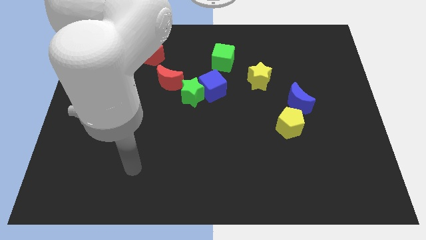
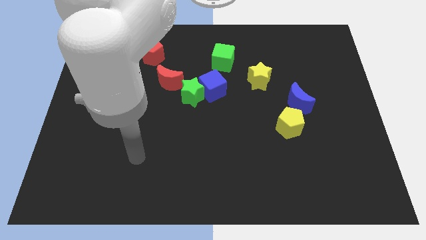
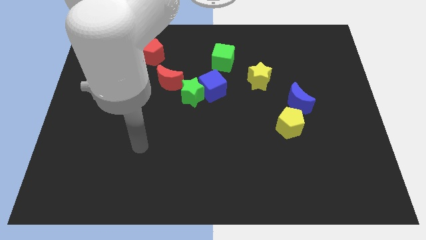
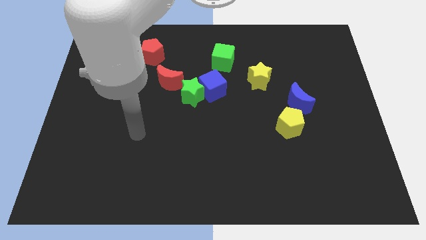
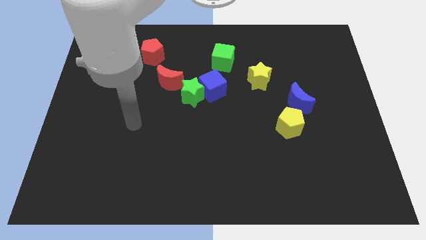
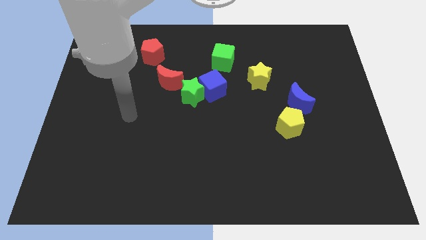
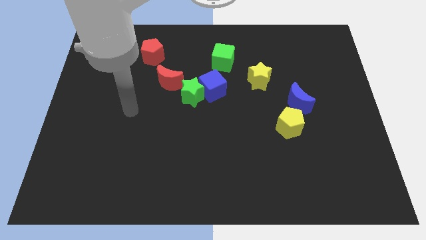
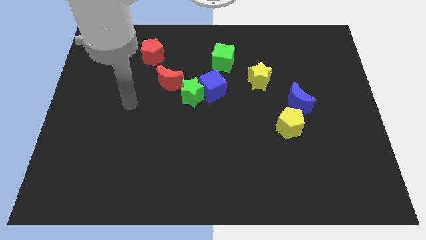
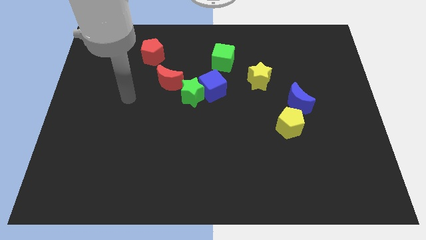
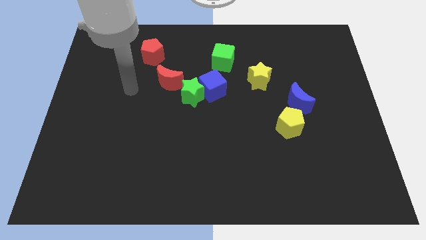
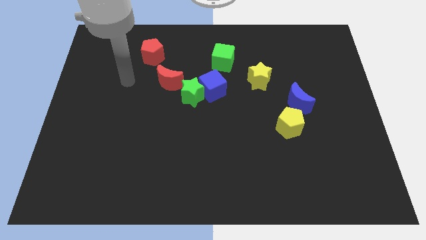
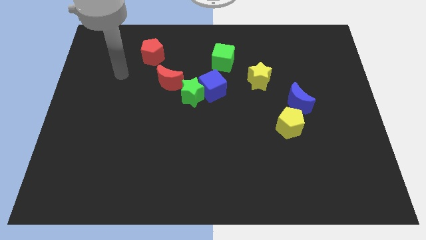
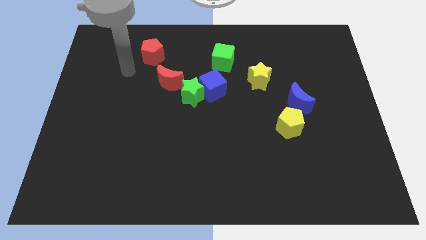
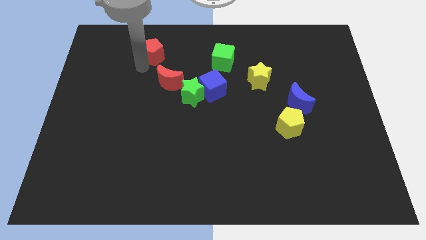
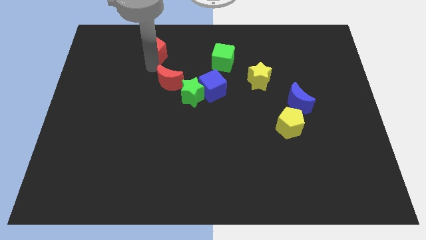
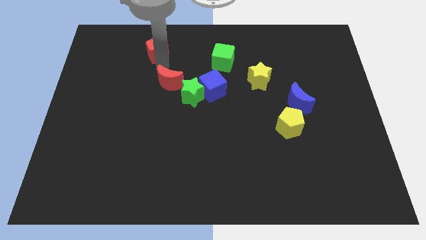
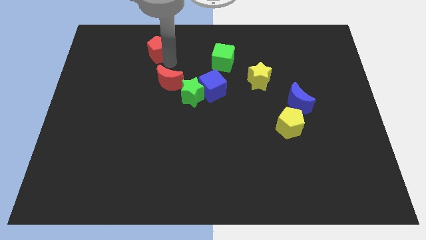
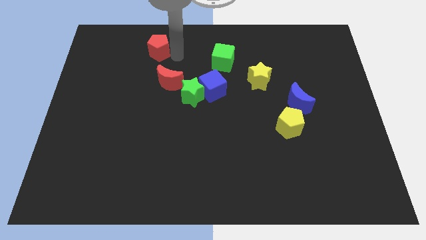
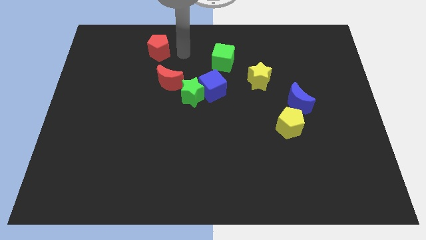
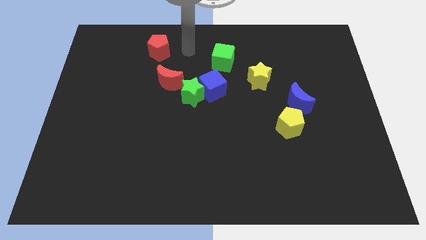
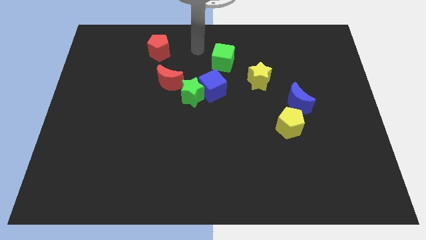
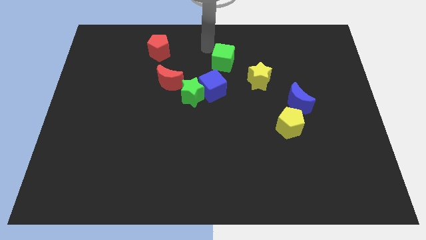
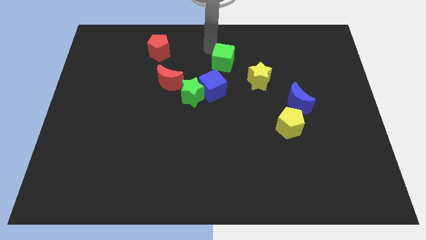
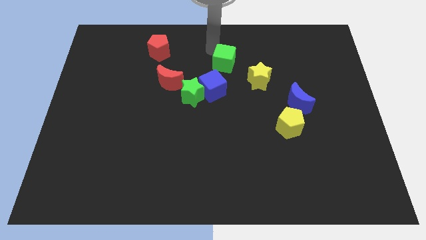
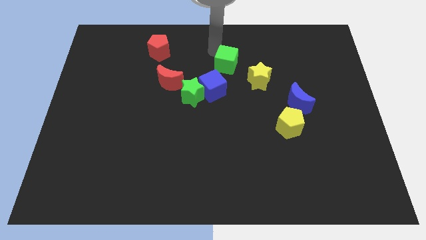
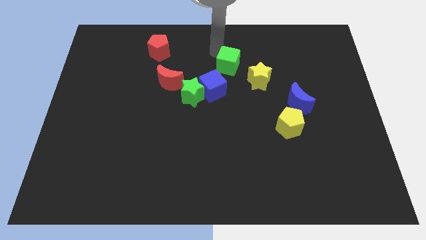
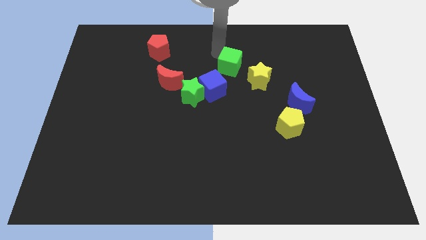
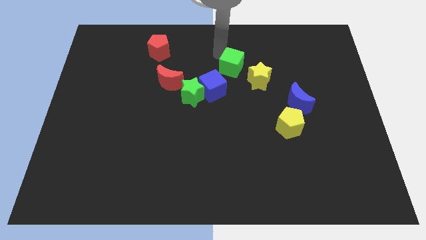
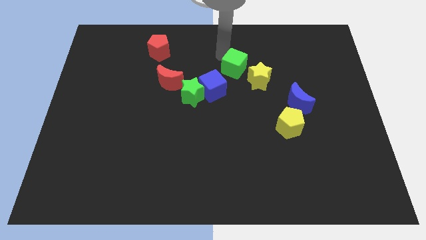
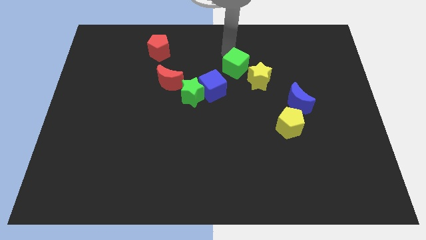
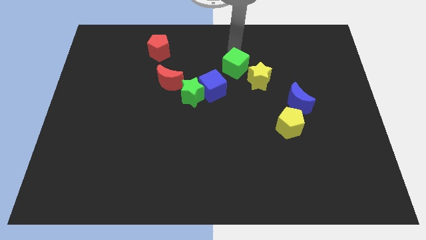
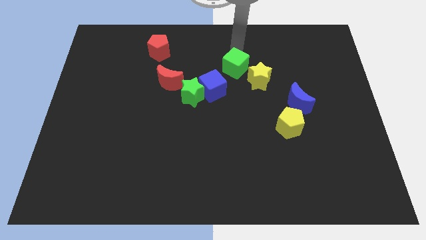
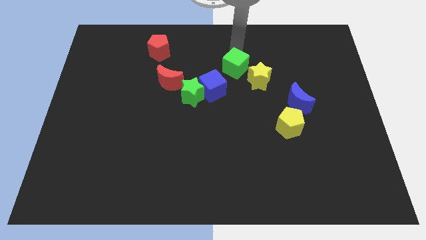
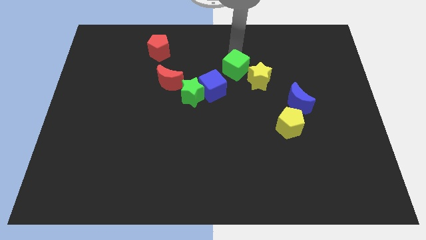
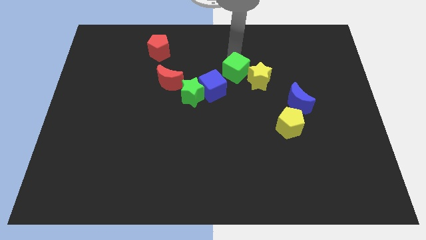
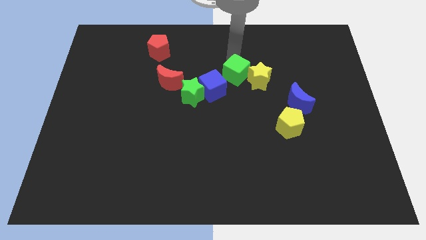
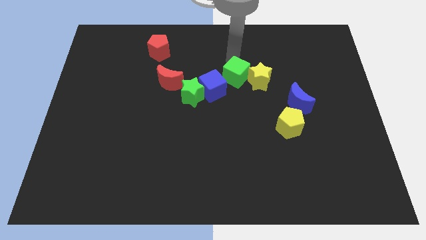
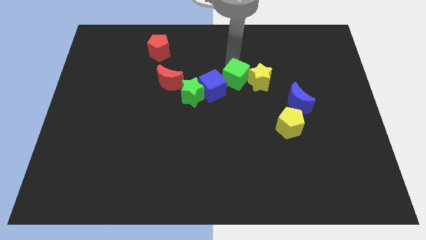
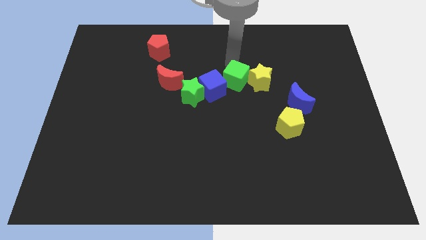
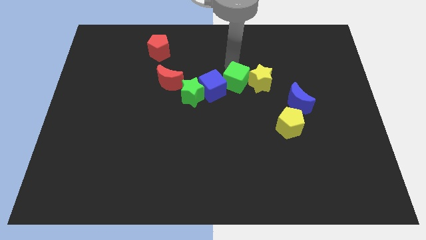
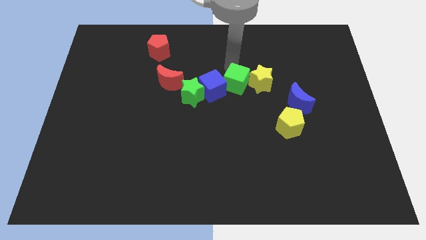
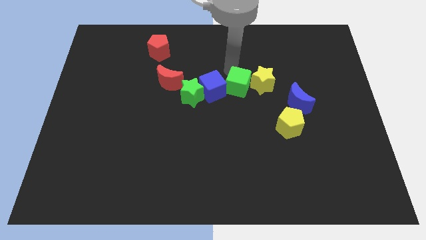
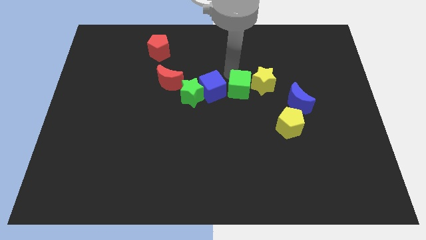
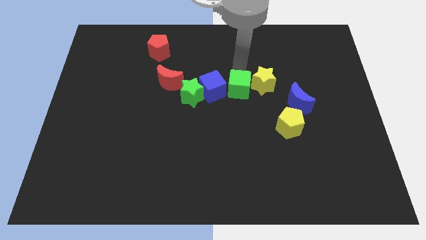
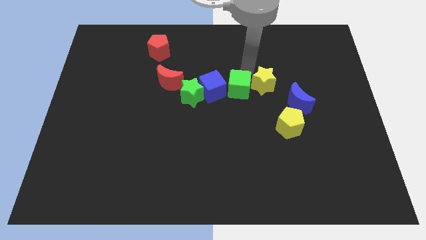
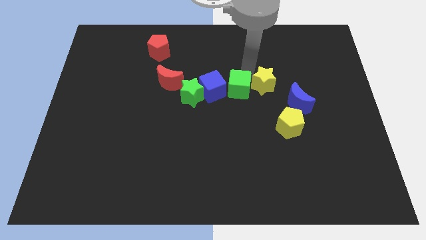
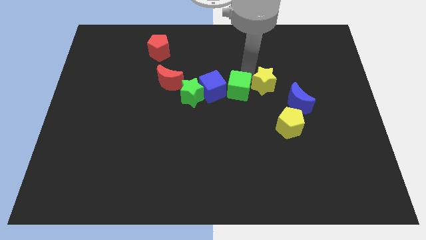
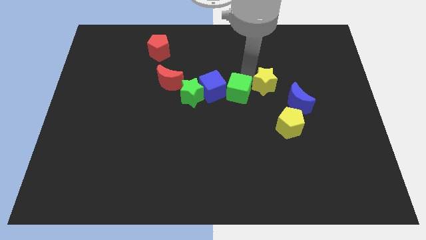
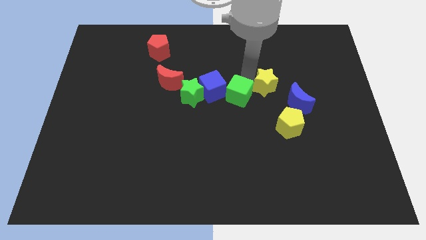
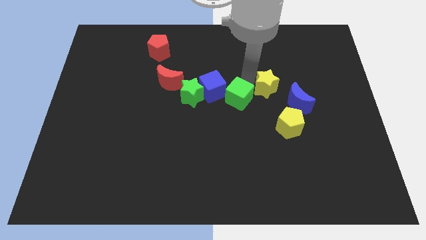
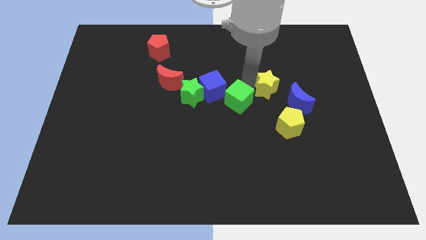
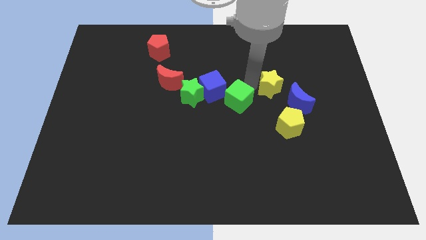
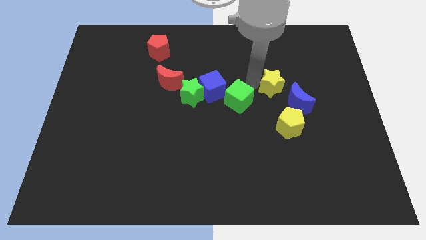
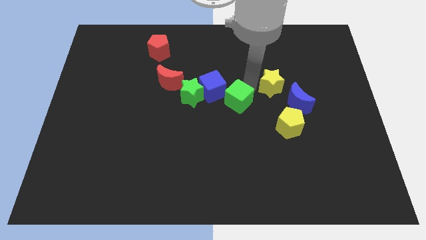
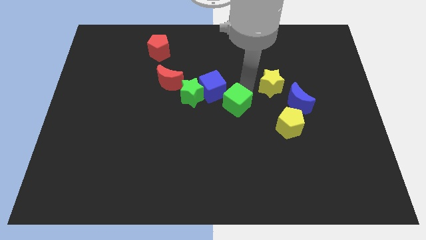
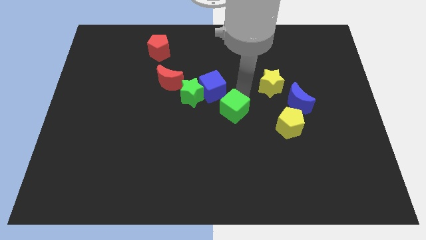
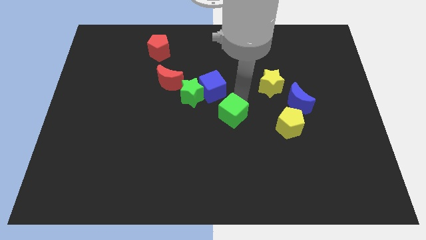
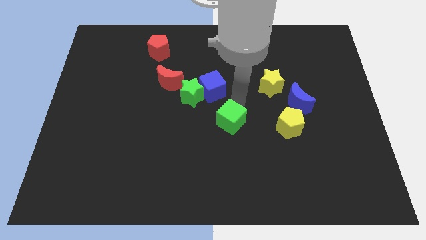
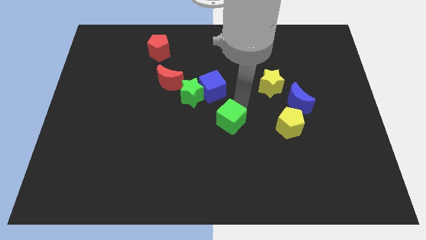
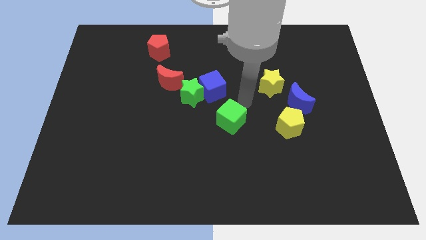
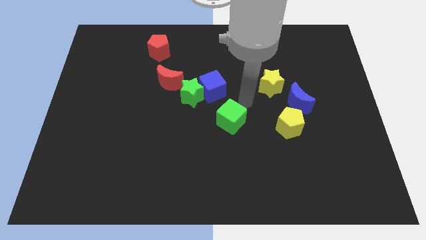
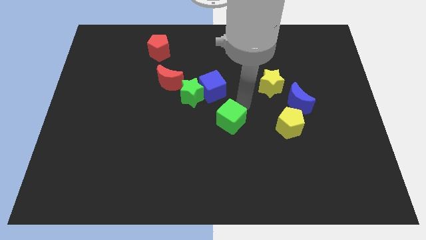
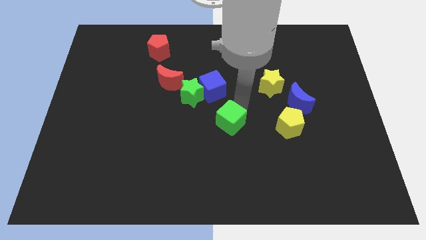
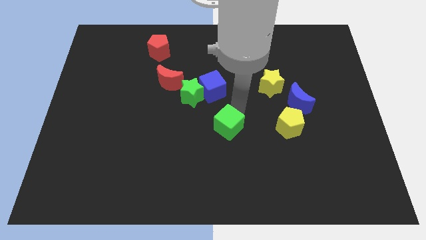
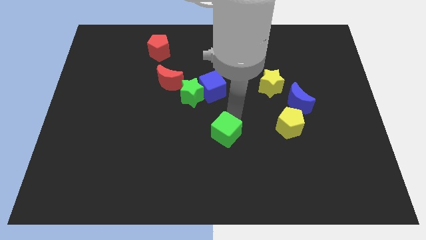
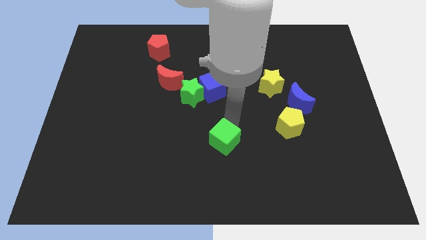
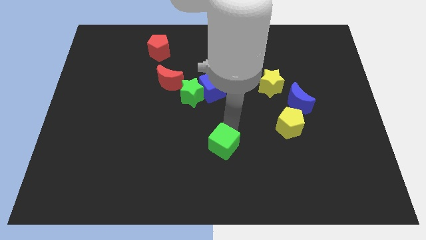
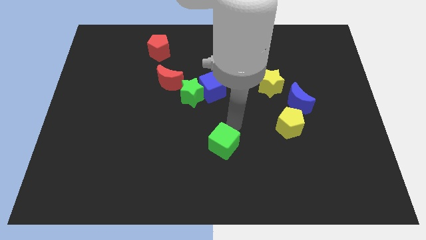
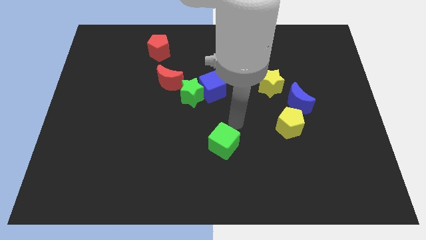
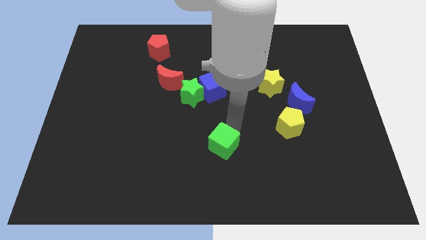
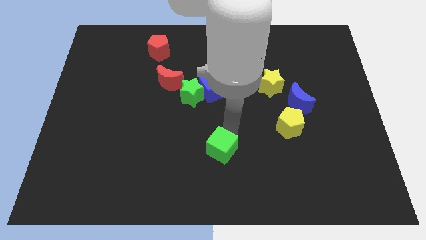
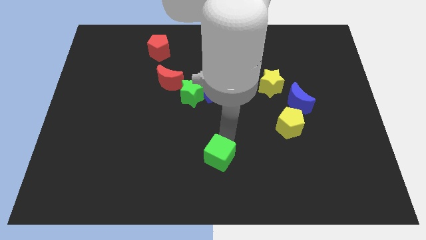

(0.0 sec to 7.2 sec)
slide the green cube to the bottom
